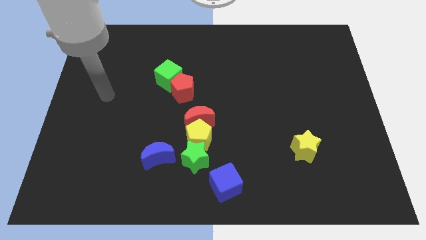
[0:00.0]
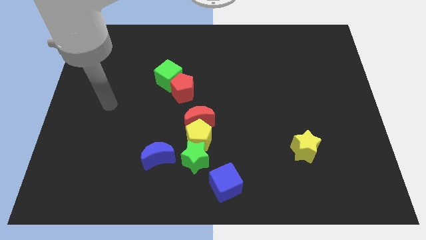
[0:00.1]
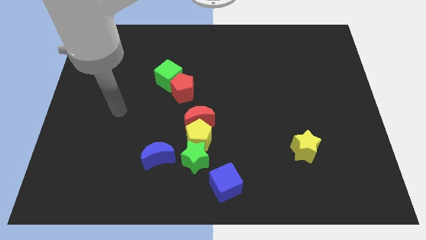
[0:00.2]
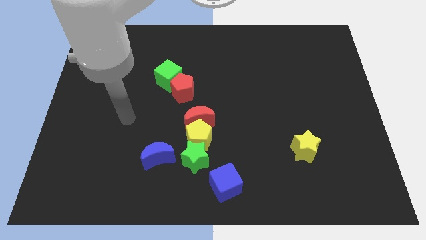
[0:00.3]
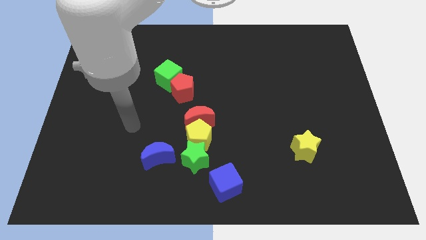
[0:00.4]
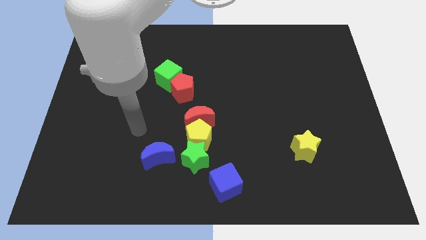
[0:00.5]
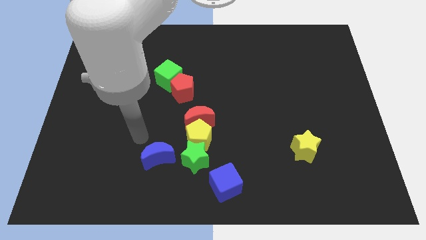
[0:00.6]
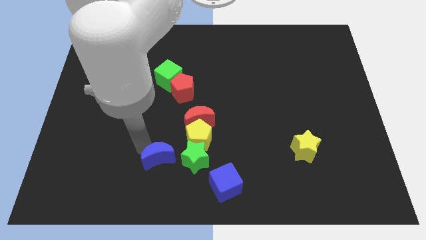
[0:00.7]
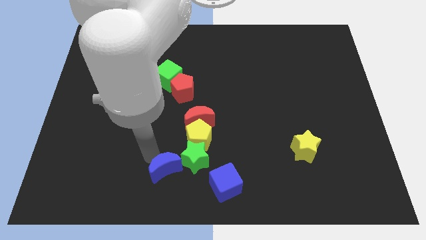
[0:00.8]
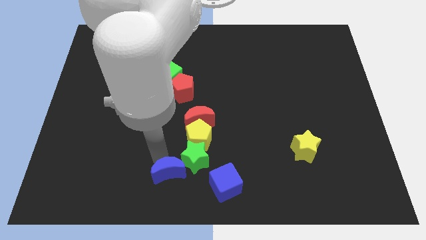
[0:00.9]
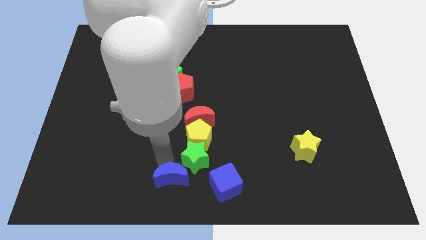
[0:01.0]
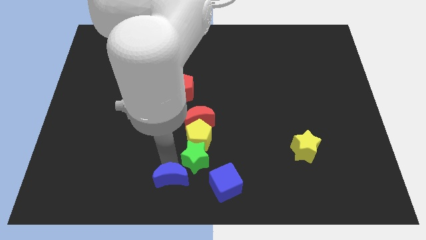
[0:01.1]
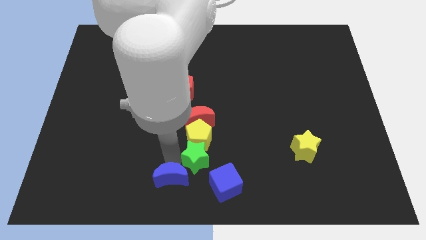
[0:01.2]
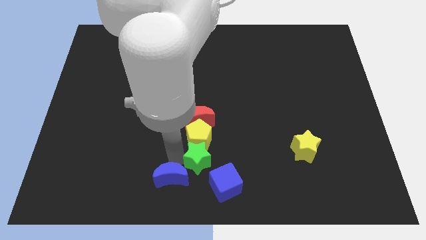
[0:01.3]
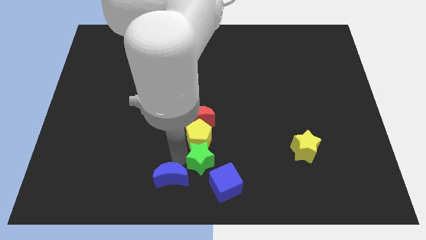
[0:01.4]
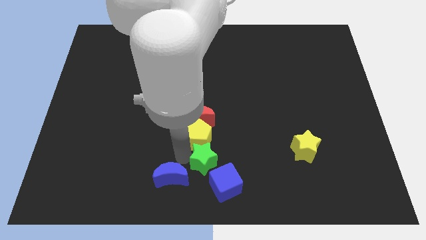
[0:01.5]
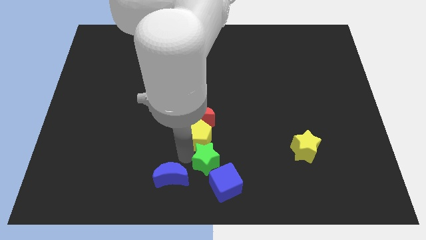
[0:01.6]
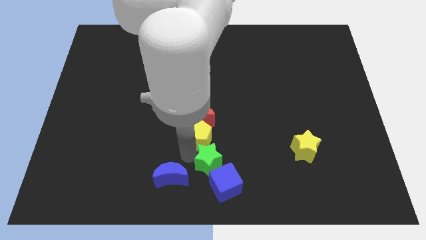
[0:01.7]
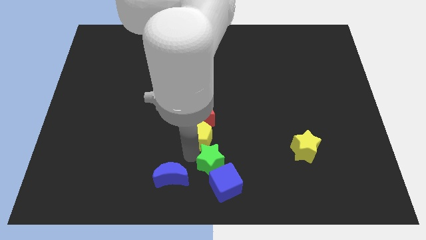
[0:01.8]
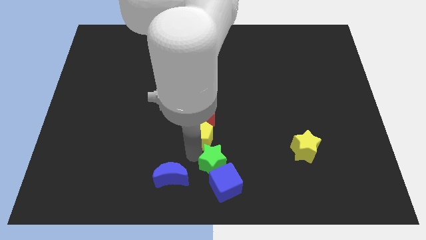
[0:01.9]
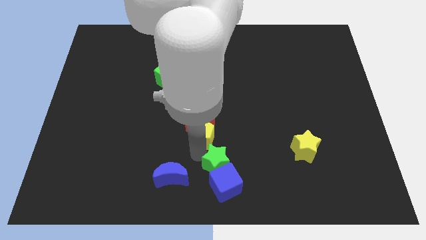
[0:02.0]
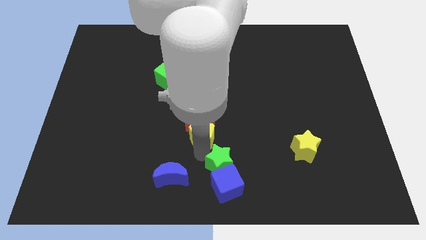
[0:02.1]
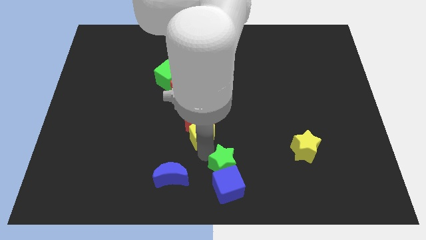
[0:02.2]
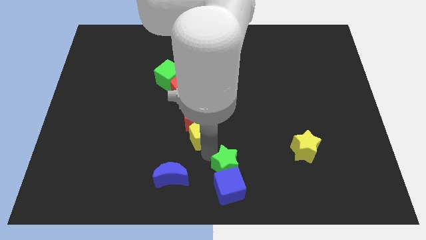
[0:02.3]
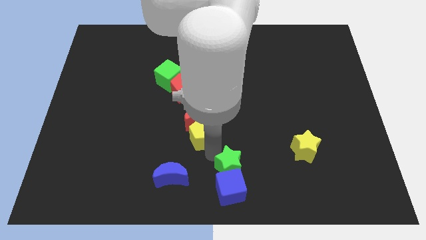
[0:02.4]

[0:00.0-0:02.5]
slightly move the green star to the right

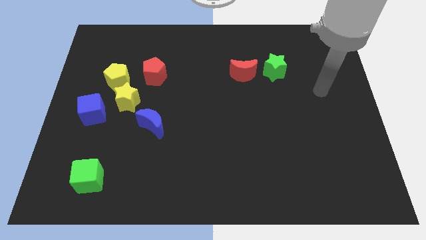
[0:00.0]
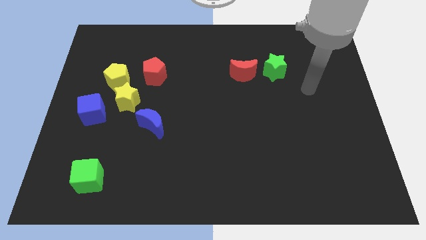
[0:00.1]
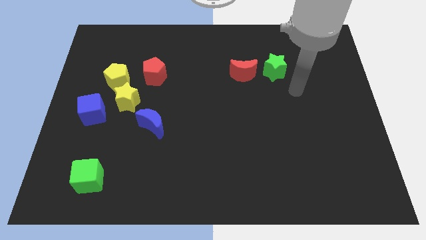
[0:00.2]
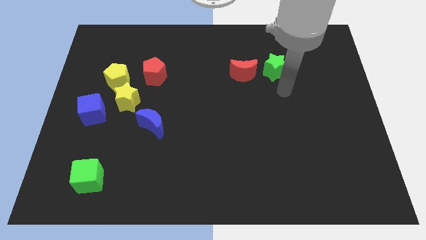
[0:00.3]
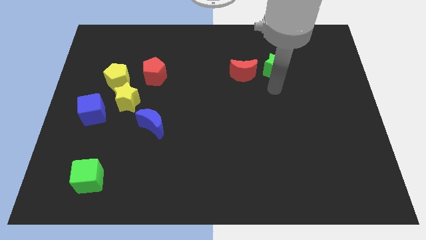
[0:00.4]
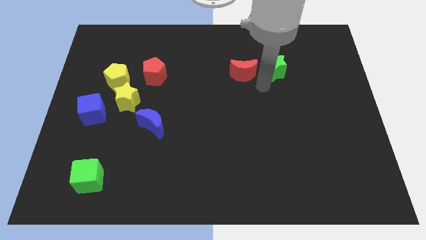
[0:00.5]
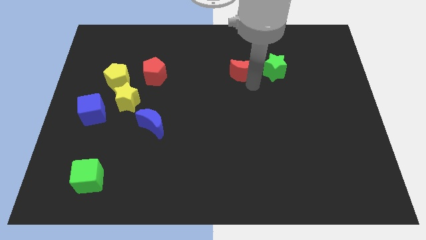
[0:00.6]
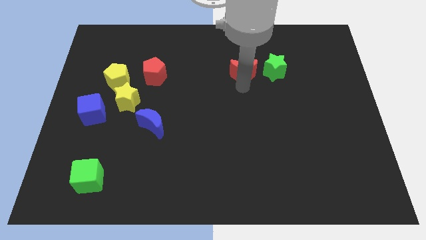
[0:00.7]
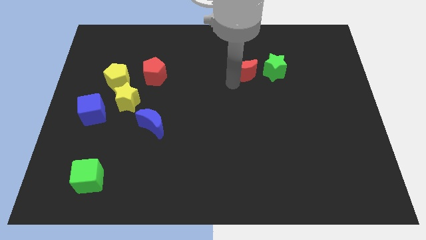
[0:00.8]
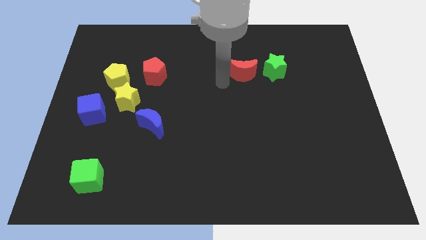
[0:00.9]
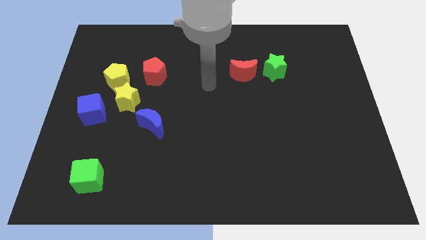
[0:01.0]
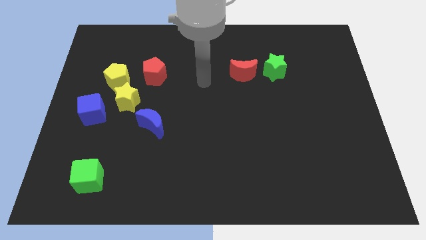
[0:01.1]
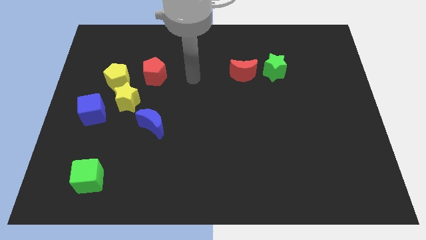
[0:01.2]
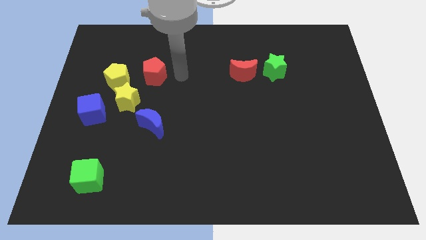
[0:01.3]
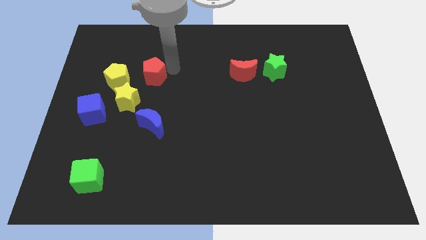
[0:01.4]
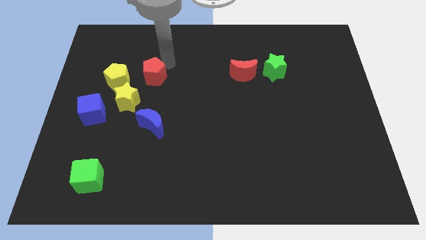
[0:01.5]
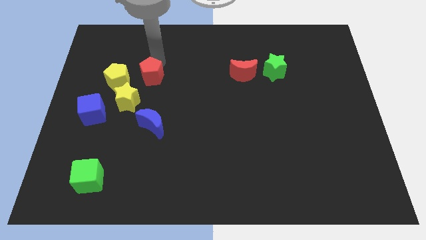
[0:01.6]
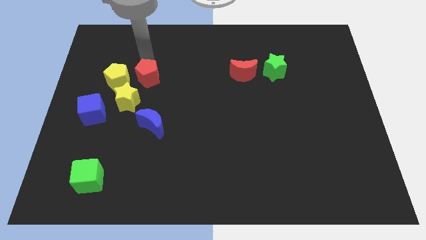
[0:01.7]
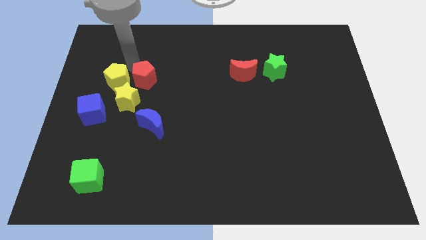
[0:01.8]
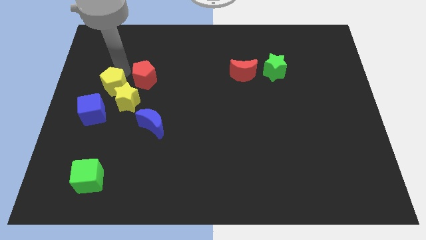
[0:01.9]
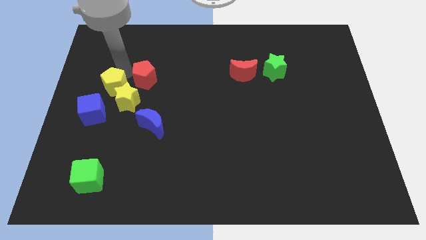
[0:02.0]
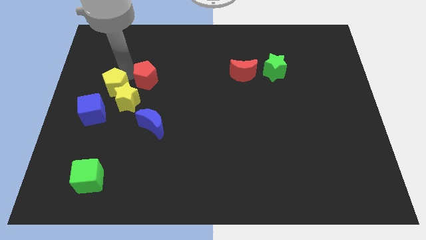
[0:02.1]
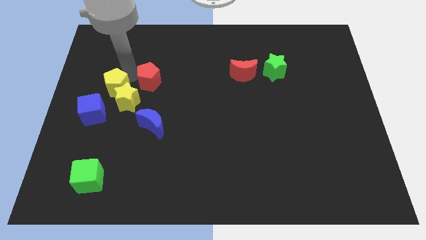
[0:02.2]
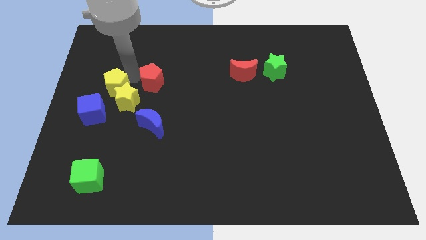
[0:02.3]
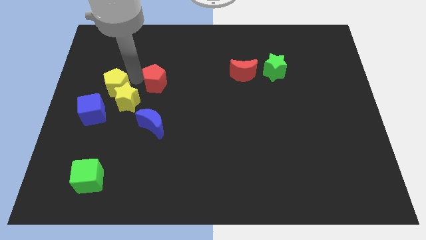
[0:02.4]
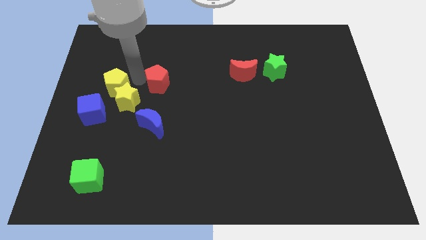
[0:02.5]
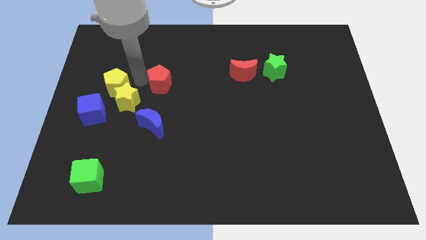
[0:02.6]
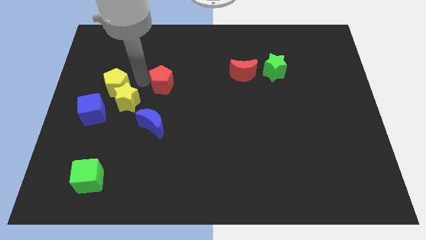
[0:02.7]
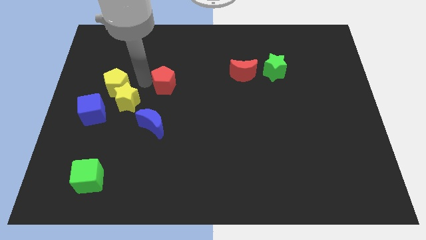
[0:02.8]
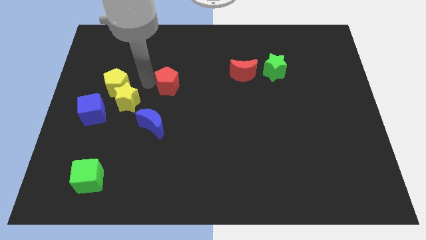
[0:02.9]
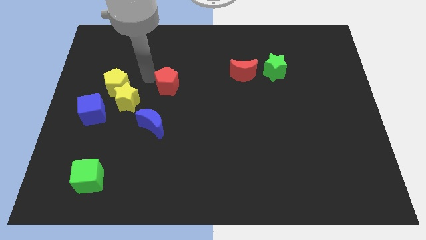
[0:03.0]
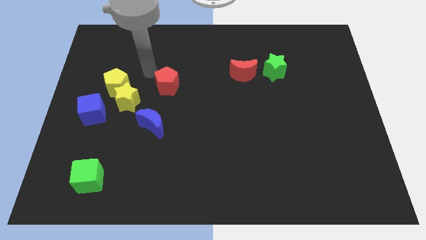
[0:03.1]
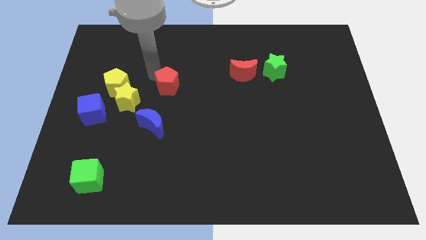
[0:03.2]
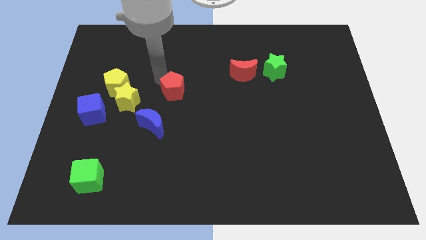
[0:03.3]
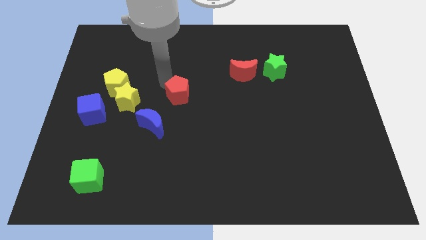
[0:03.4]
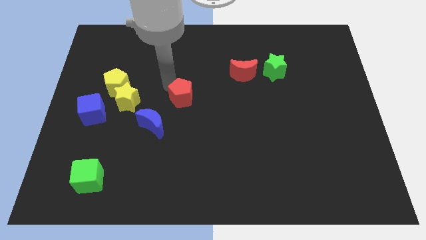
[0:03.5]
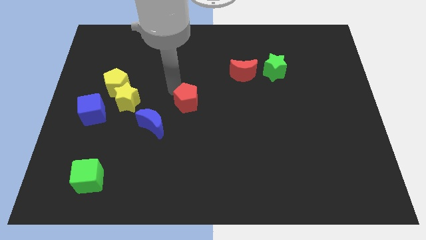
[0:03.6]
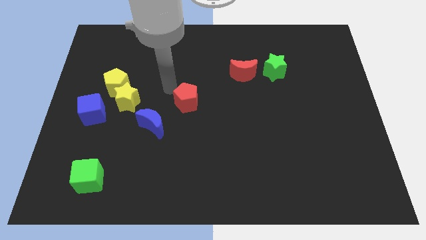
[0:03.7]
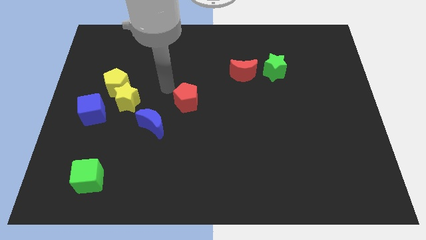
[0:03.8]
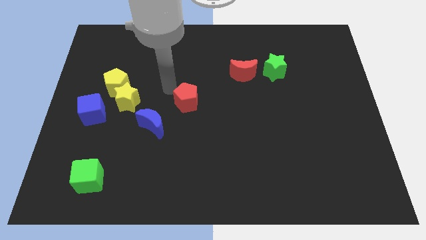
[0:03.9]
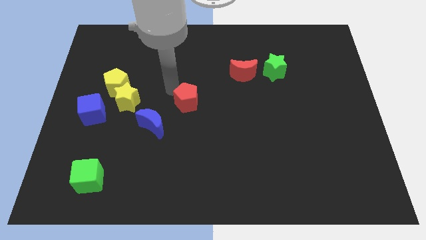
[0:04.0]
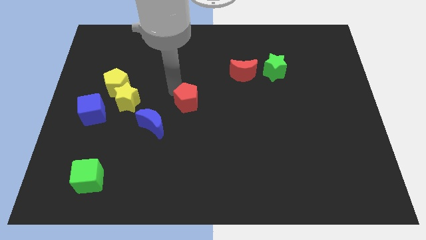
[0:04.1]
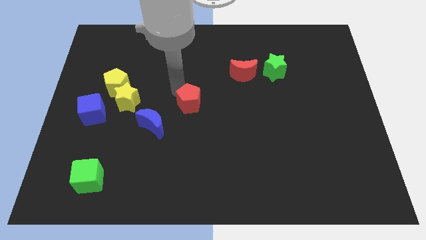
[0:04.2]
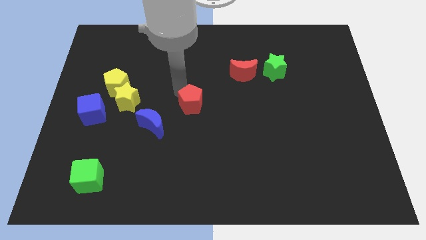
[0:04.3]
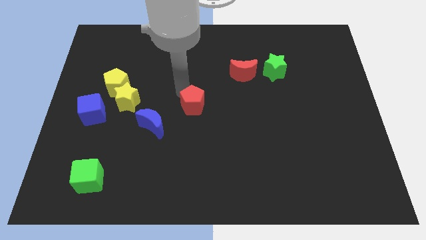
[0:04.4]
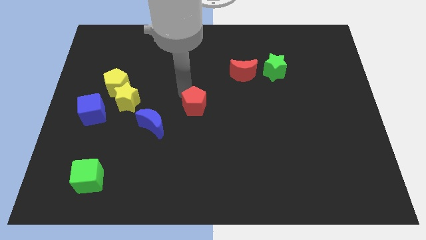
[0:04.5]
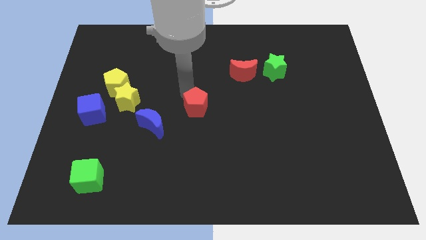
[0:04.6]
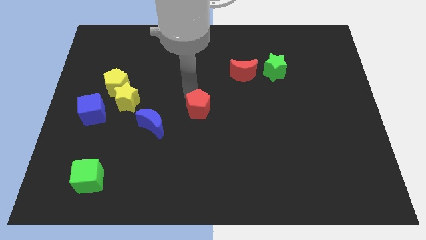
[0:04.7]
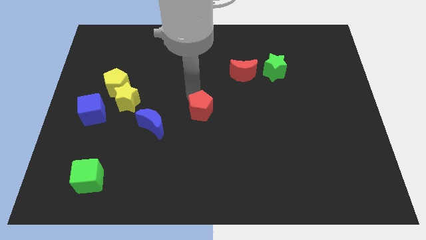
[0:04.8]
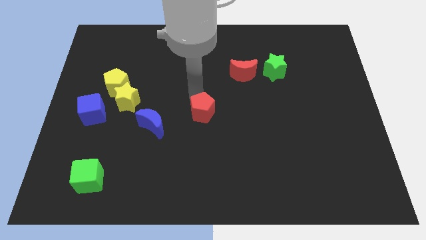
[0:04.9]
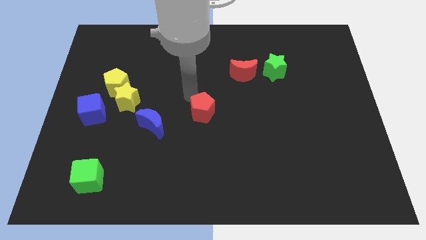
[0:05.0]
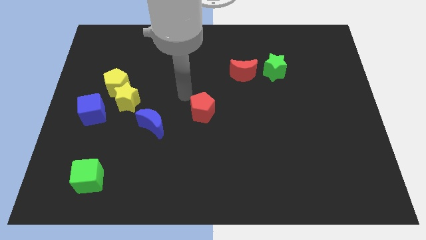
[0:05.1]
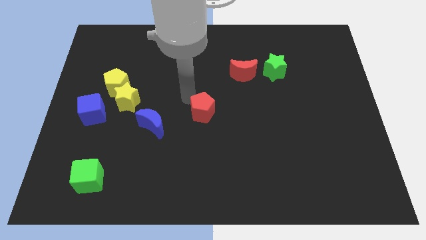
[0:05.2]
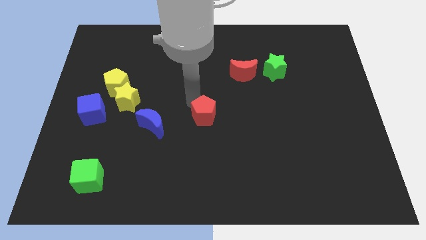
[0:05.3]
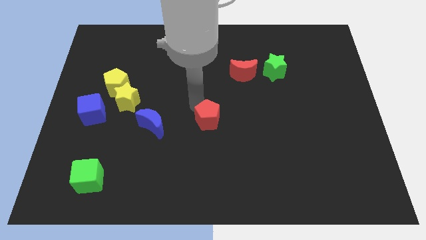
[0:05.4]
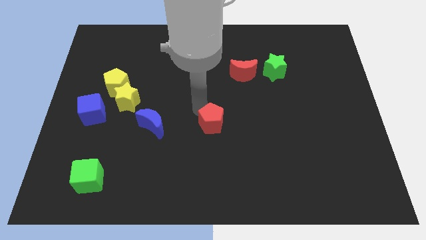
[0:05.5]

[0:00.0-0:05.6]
move the red pentagon downwards and to the right
